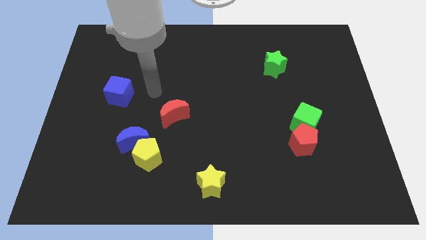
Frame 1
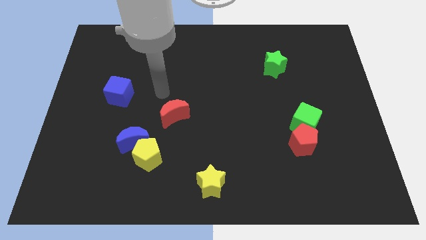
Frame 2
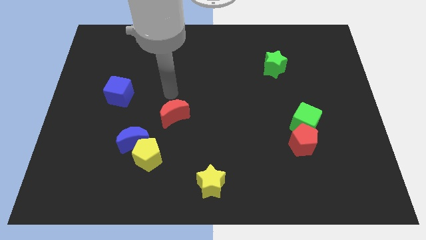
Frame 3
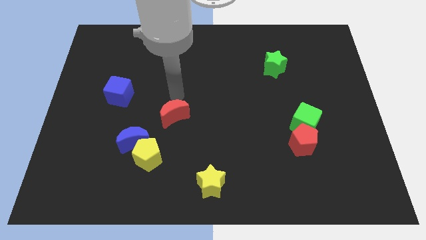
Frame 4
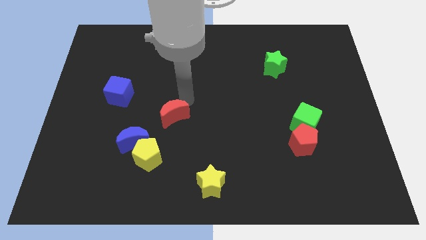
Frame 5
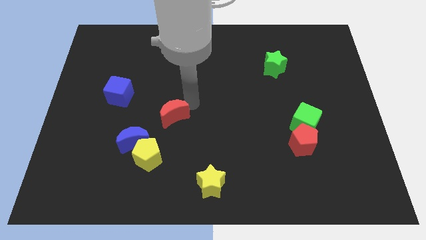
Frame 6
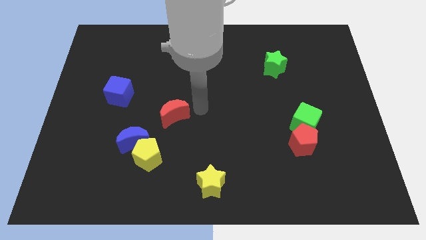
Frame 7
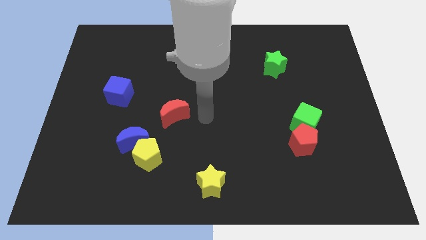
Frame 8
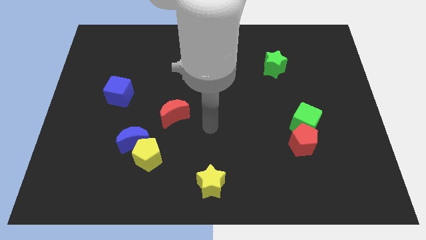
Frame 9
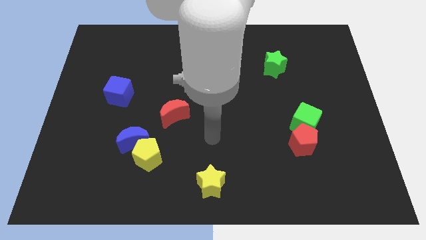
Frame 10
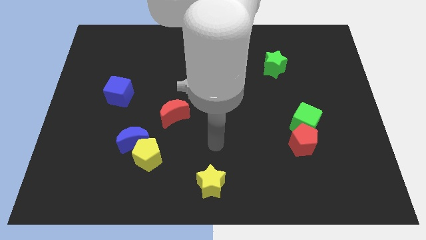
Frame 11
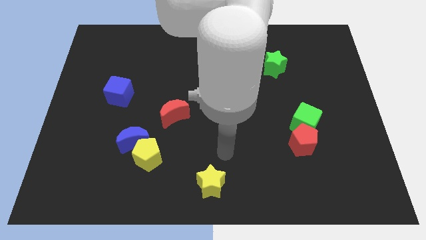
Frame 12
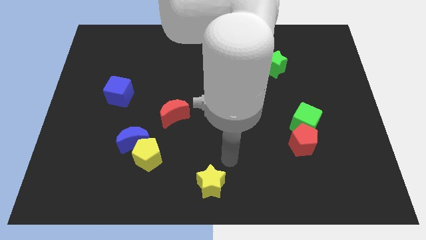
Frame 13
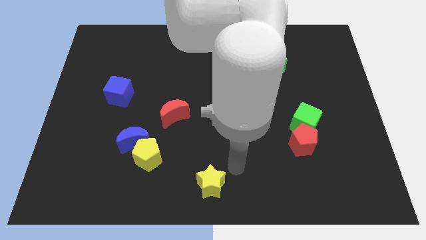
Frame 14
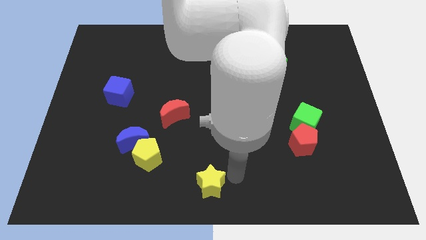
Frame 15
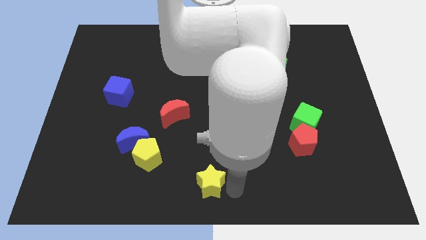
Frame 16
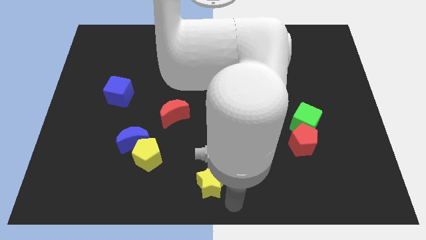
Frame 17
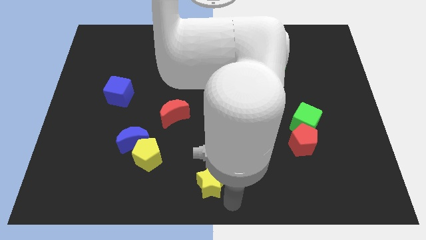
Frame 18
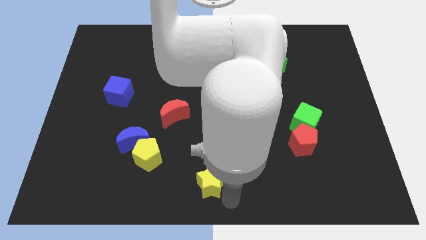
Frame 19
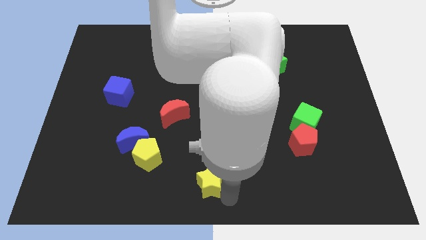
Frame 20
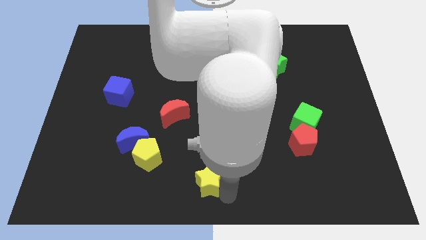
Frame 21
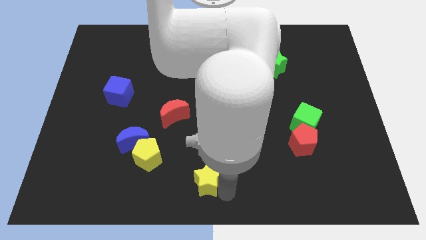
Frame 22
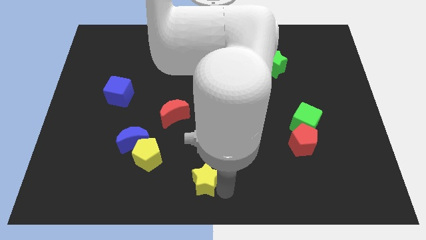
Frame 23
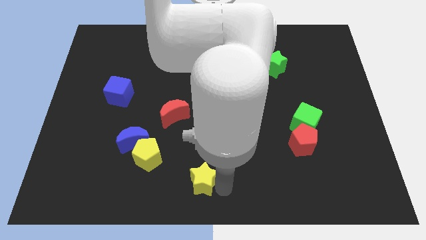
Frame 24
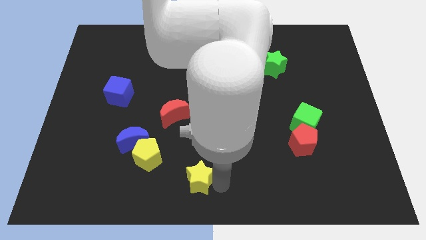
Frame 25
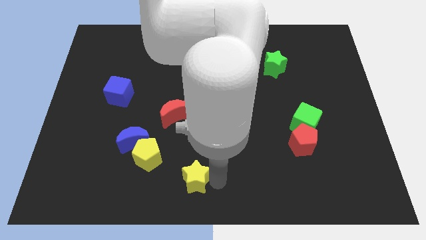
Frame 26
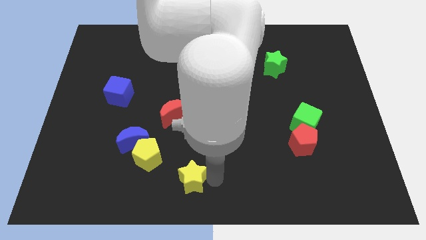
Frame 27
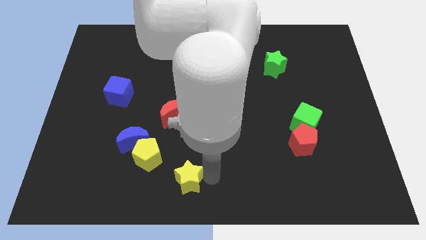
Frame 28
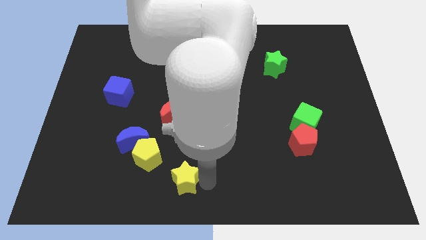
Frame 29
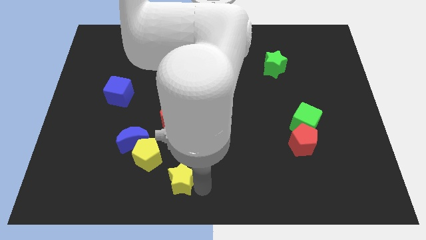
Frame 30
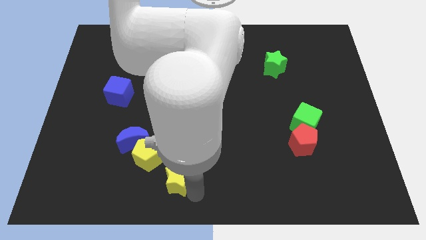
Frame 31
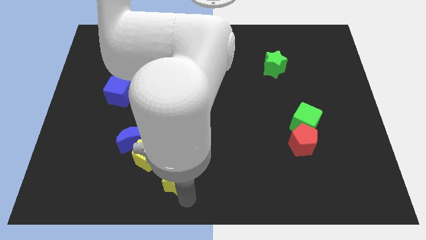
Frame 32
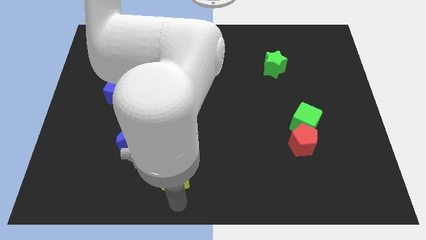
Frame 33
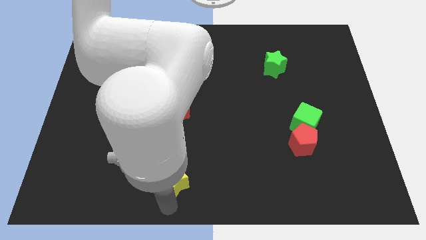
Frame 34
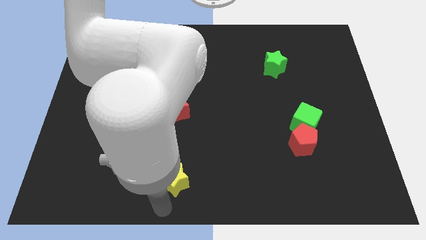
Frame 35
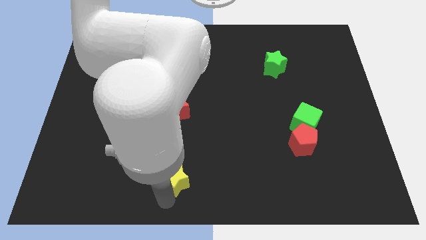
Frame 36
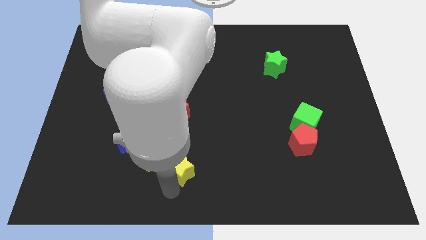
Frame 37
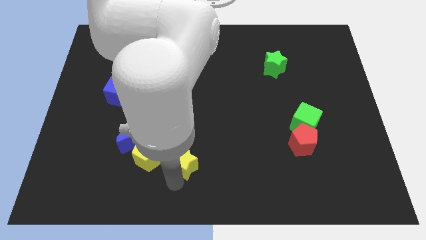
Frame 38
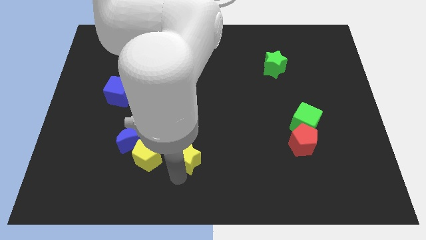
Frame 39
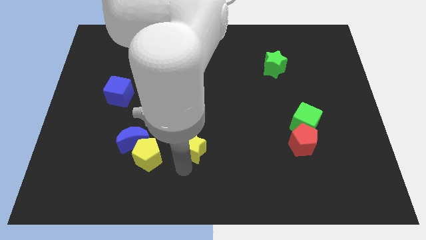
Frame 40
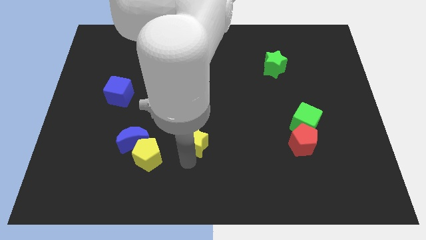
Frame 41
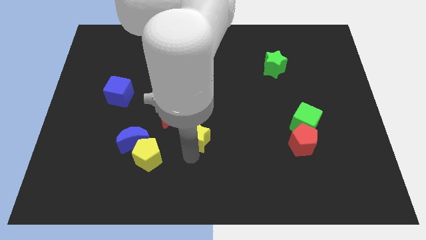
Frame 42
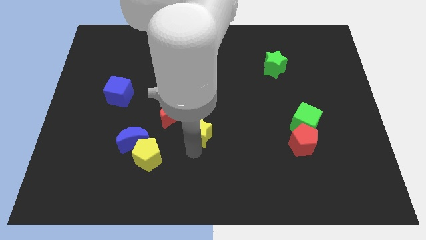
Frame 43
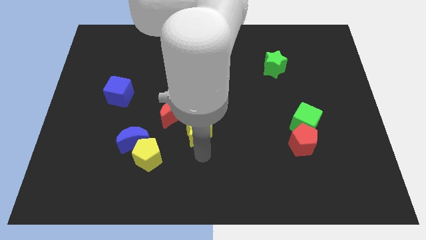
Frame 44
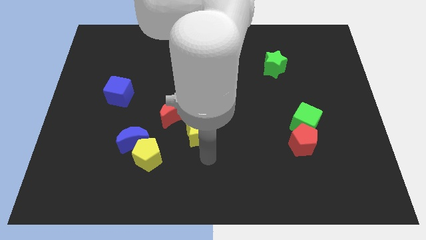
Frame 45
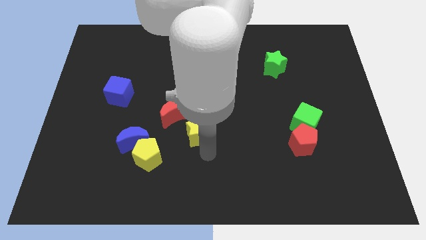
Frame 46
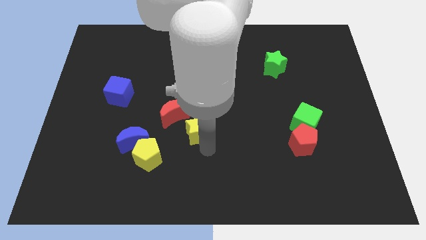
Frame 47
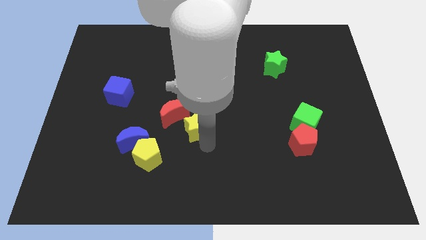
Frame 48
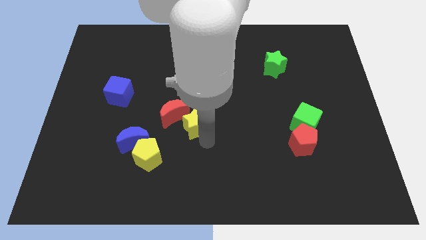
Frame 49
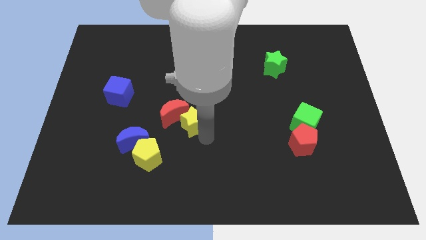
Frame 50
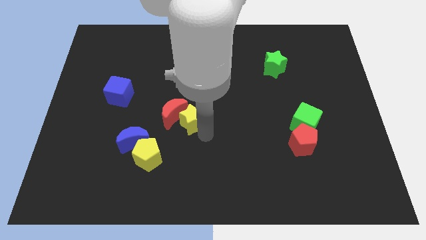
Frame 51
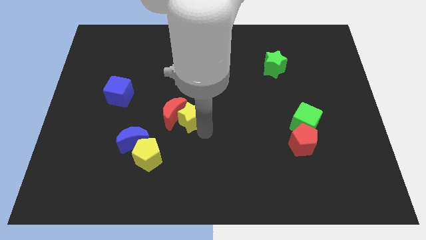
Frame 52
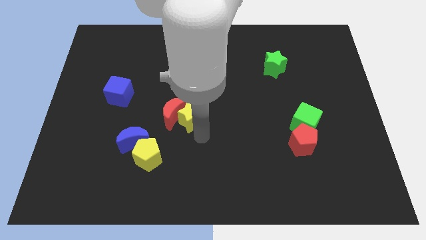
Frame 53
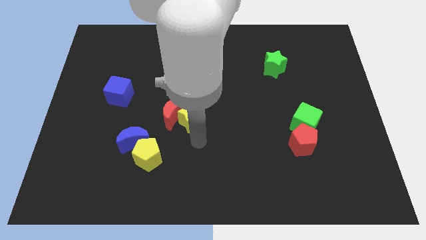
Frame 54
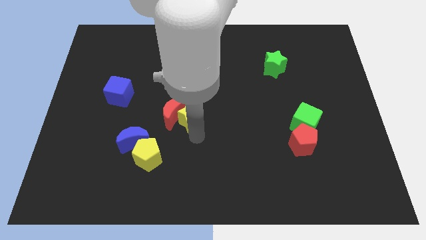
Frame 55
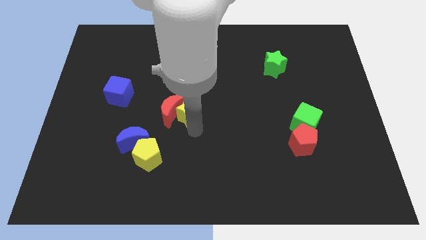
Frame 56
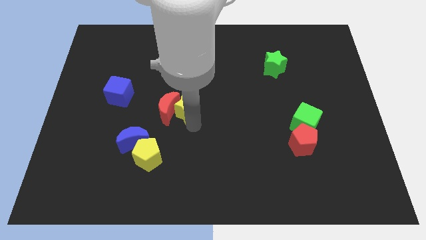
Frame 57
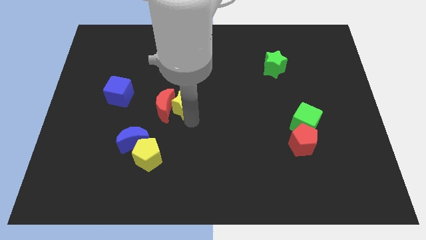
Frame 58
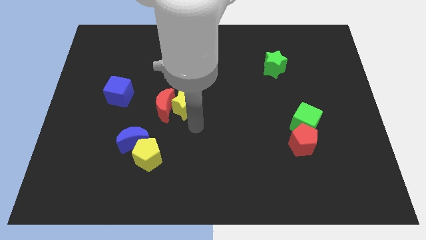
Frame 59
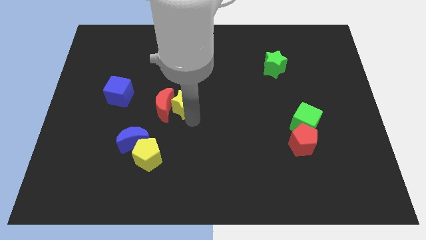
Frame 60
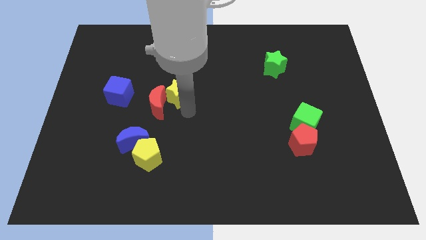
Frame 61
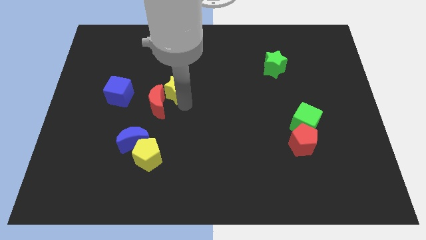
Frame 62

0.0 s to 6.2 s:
move the yellow star to the top side of the red moon

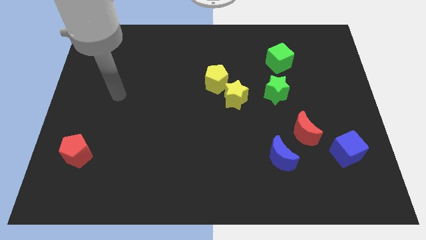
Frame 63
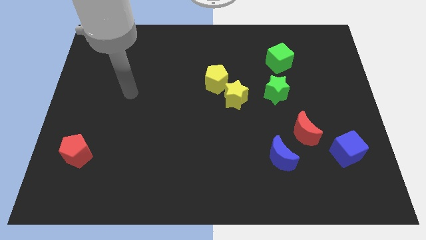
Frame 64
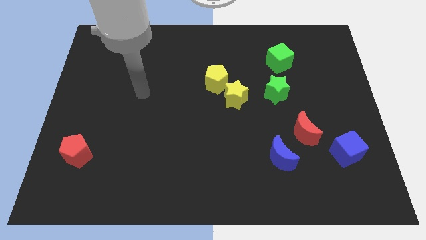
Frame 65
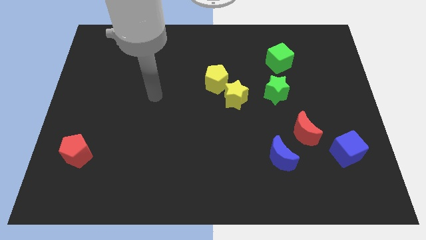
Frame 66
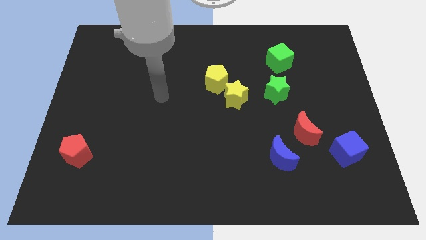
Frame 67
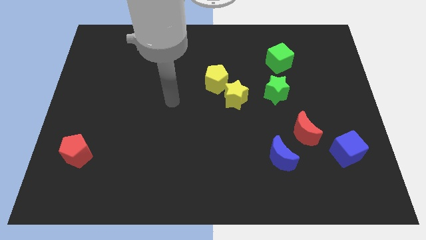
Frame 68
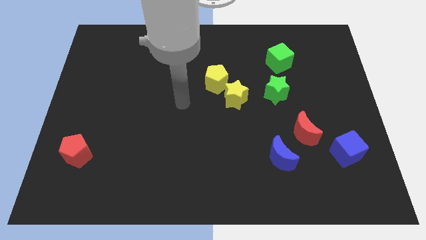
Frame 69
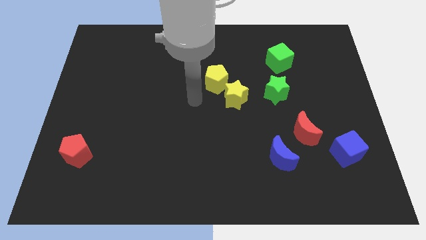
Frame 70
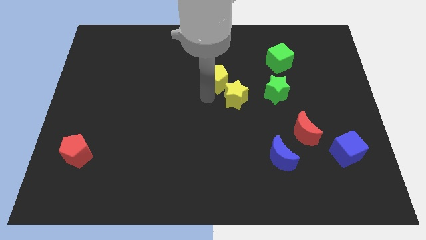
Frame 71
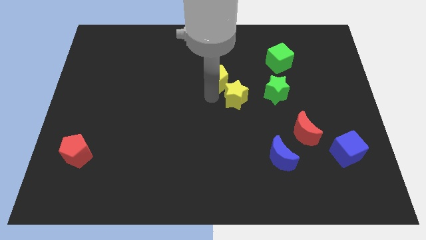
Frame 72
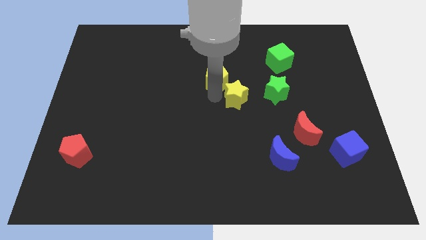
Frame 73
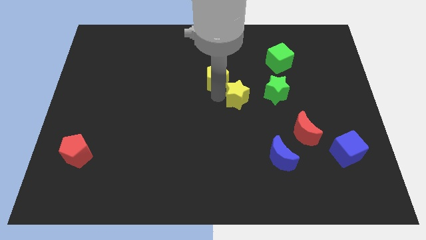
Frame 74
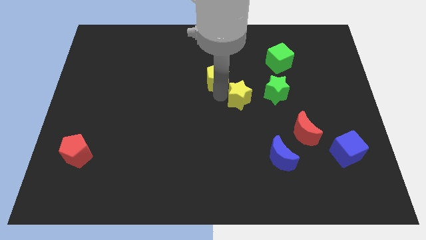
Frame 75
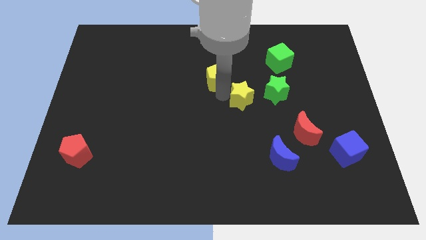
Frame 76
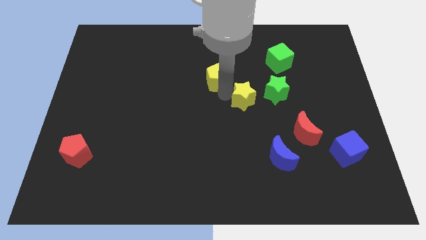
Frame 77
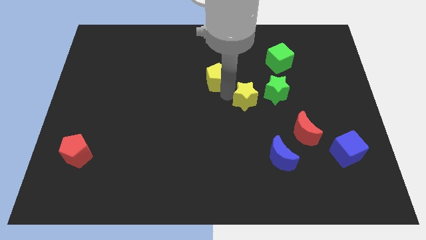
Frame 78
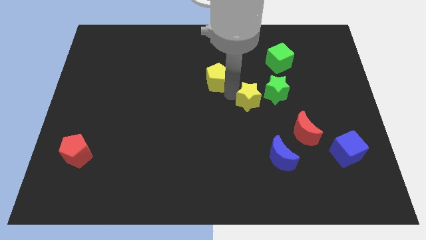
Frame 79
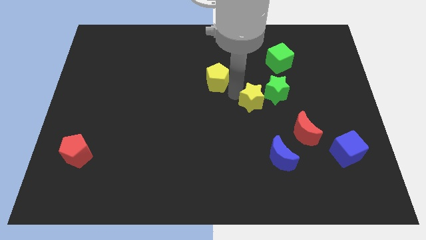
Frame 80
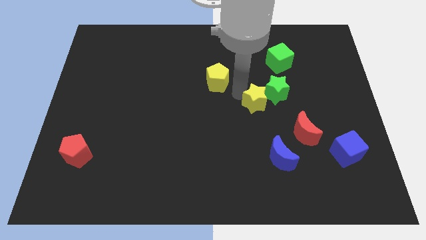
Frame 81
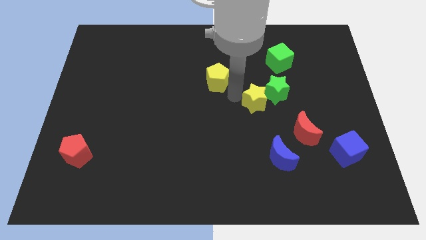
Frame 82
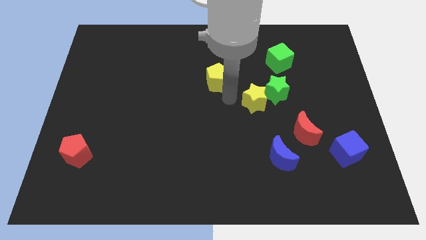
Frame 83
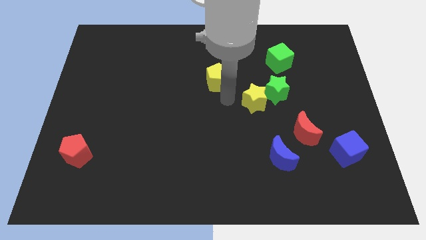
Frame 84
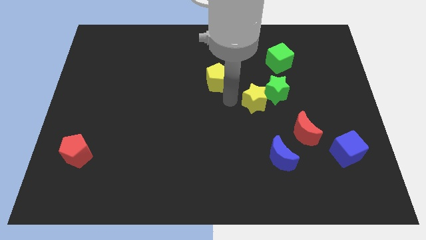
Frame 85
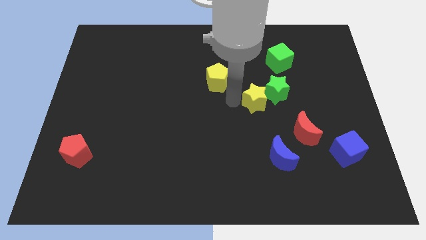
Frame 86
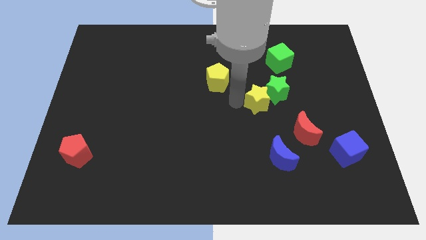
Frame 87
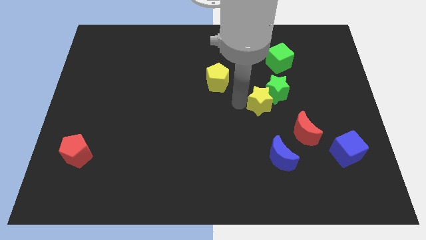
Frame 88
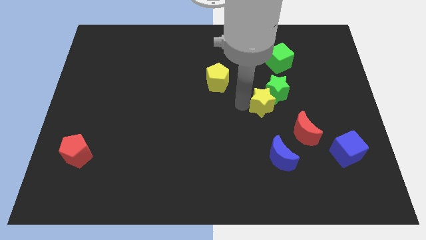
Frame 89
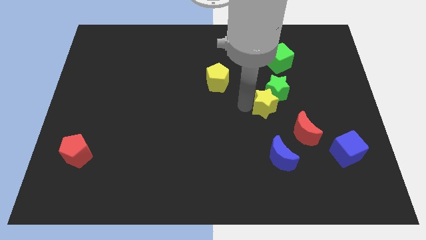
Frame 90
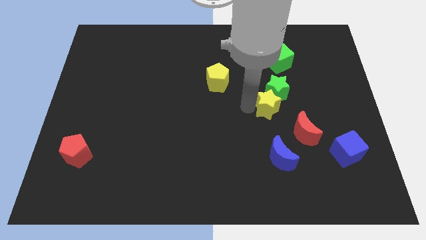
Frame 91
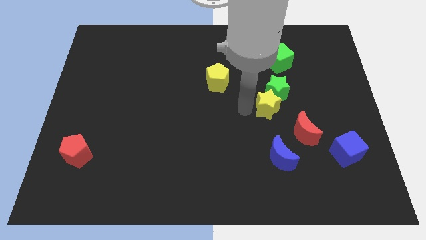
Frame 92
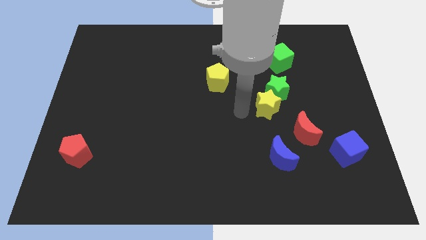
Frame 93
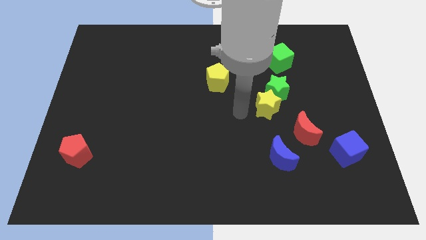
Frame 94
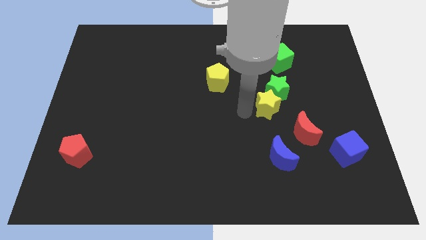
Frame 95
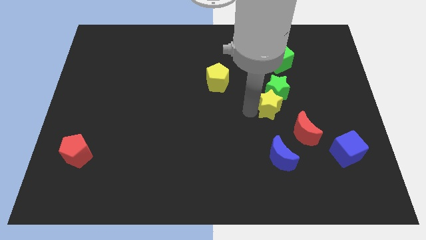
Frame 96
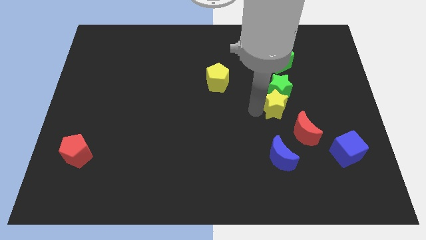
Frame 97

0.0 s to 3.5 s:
move the yellow star to the bottom of the green cube
